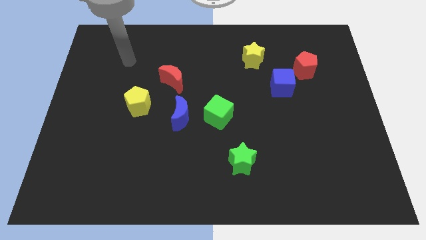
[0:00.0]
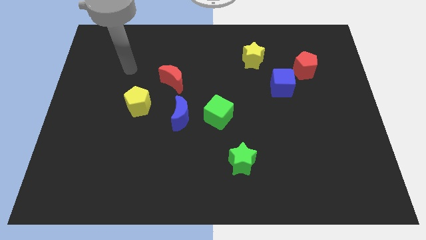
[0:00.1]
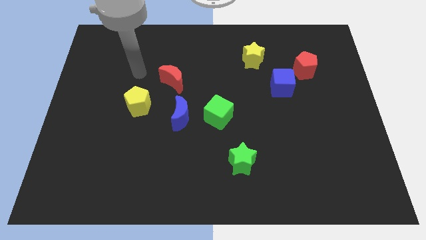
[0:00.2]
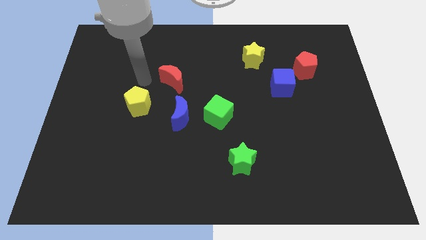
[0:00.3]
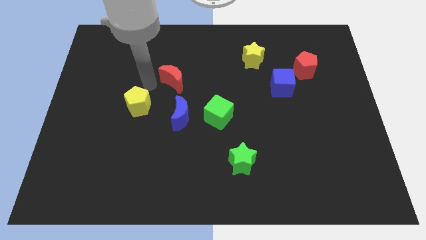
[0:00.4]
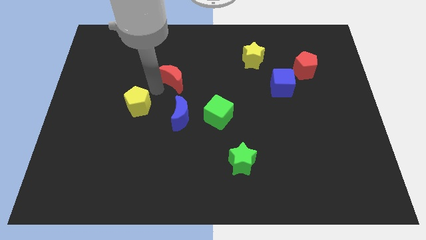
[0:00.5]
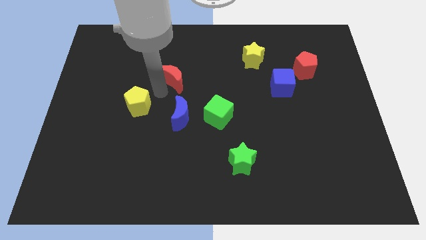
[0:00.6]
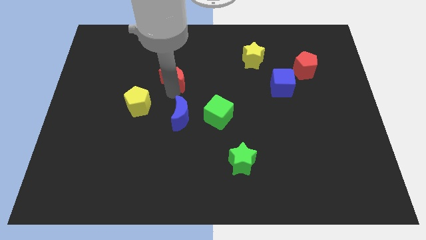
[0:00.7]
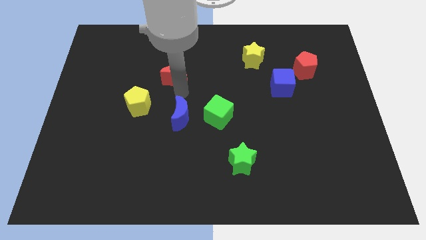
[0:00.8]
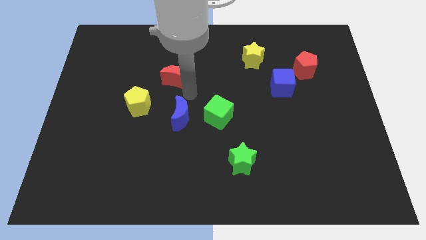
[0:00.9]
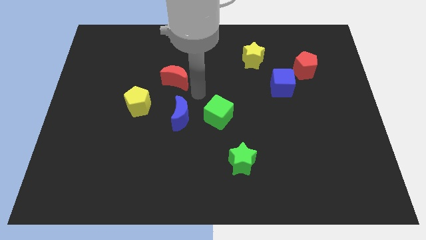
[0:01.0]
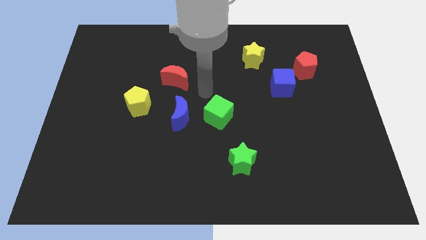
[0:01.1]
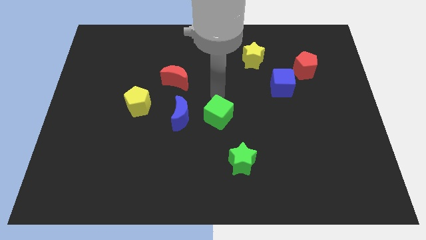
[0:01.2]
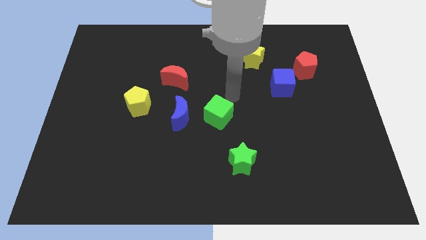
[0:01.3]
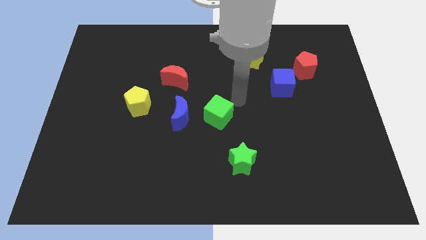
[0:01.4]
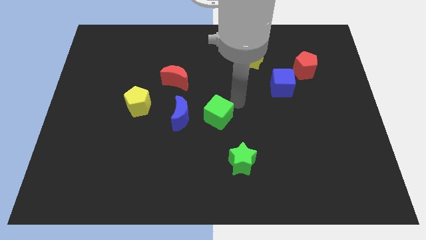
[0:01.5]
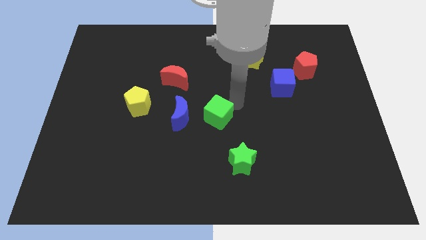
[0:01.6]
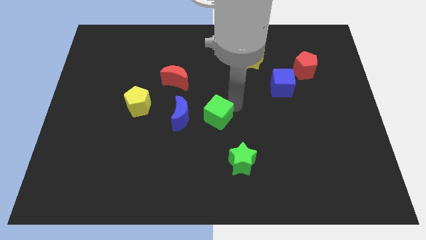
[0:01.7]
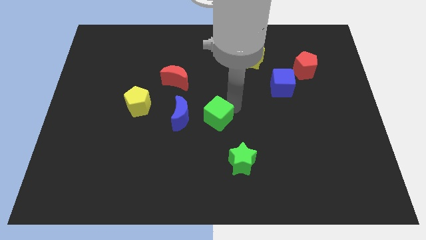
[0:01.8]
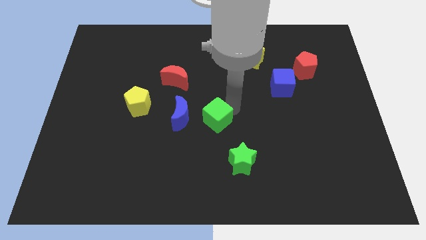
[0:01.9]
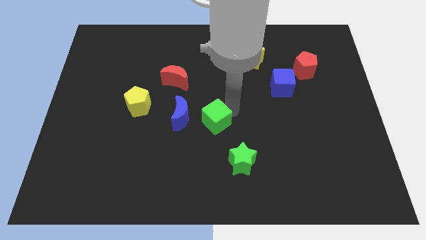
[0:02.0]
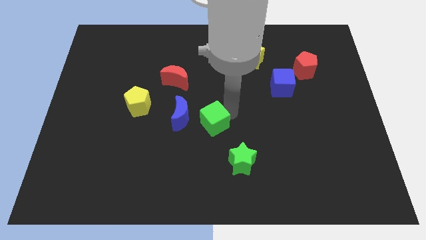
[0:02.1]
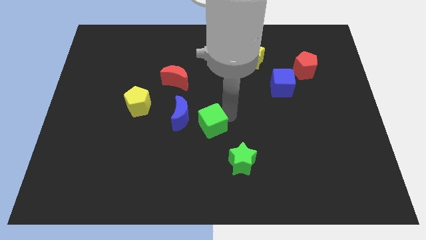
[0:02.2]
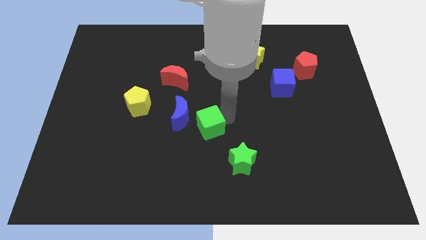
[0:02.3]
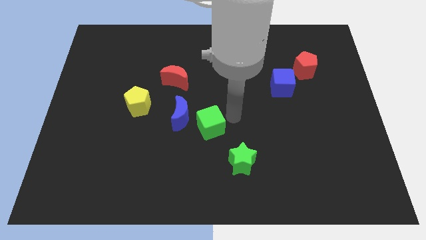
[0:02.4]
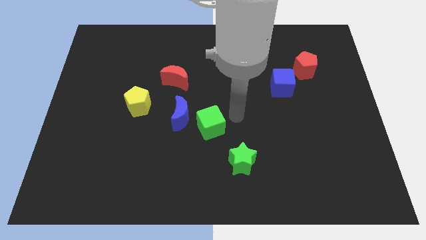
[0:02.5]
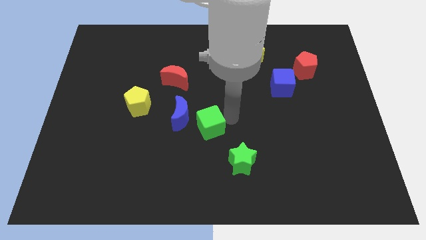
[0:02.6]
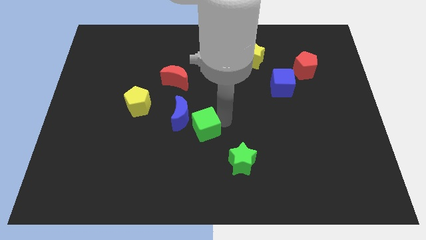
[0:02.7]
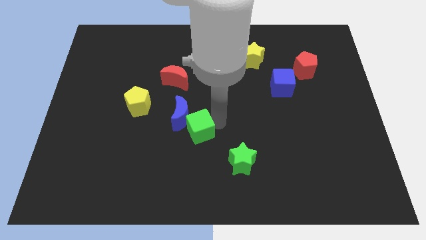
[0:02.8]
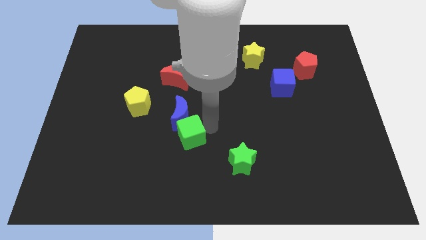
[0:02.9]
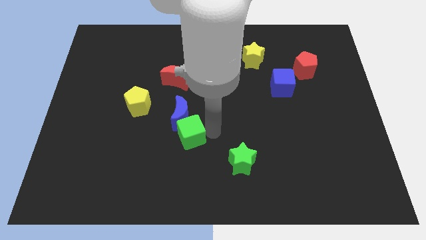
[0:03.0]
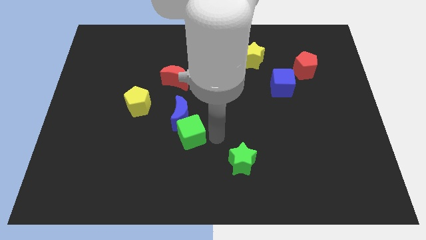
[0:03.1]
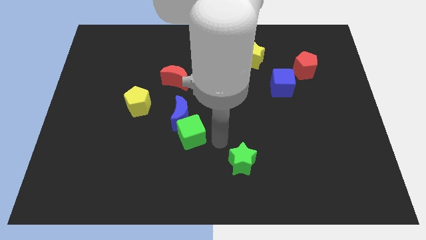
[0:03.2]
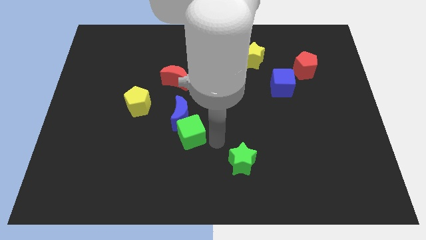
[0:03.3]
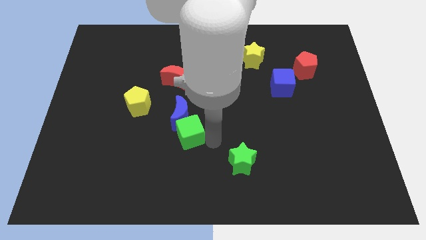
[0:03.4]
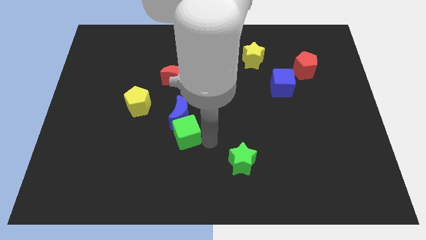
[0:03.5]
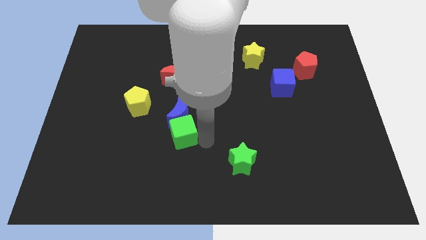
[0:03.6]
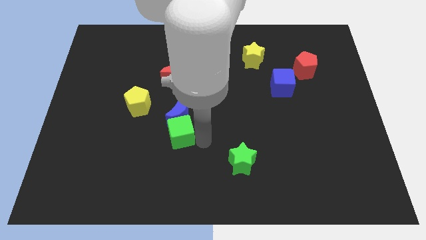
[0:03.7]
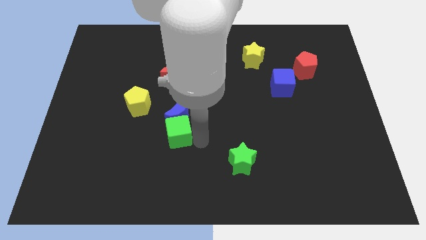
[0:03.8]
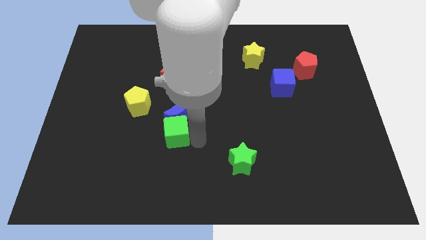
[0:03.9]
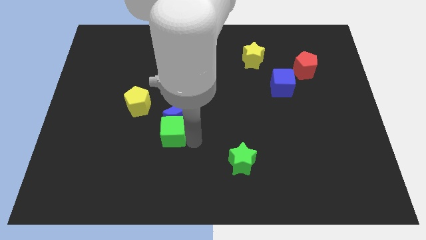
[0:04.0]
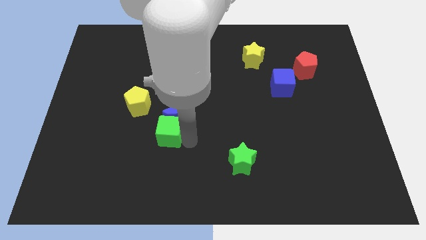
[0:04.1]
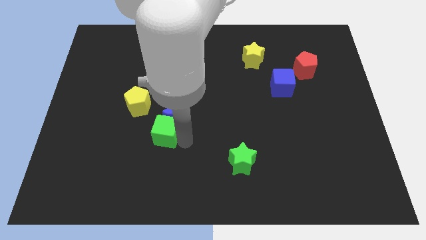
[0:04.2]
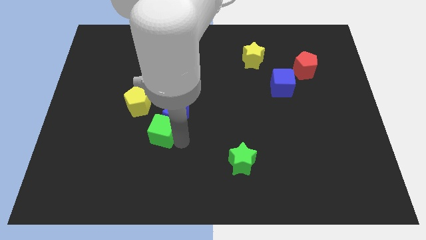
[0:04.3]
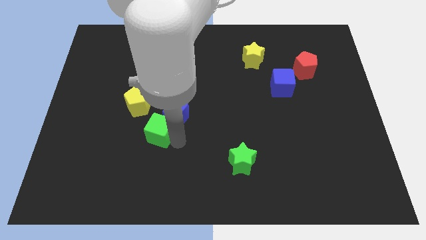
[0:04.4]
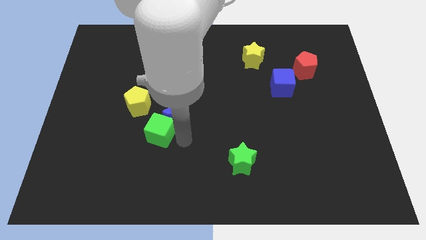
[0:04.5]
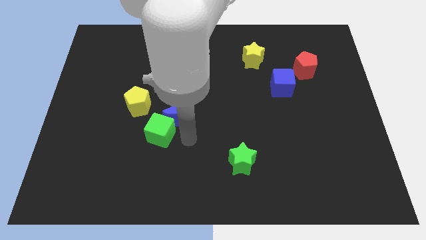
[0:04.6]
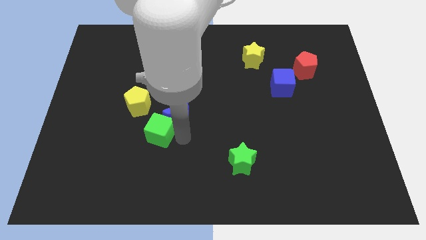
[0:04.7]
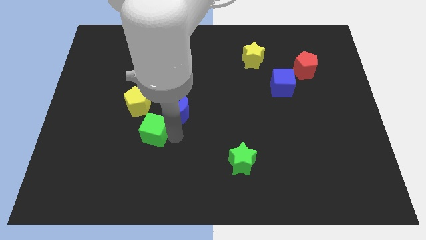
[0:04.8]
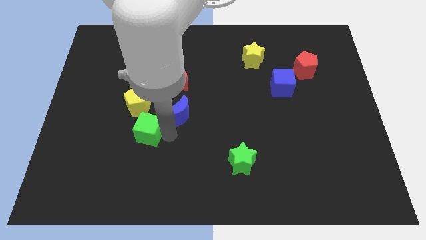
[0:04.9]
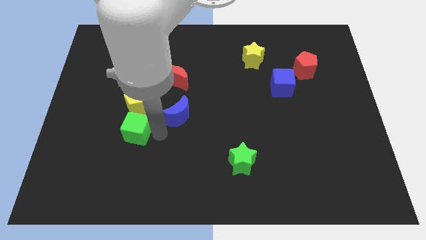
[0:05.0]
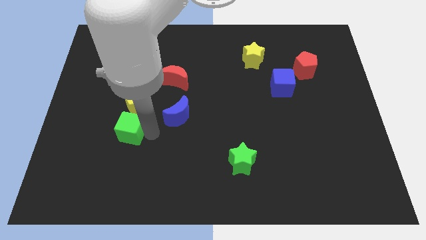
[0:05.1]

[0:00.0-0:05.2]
move the green cube to the bottom left of the yellow pentagon

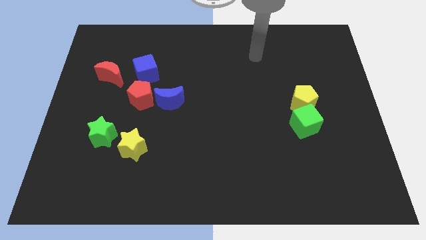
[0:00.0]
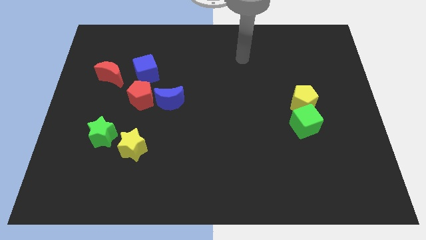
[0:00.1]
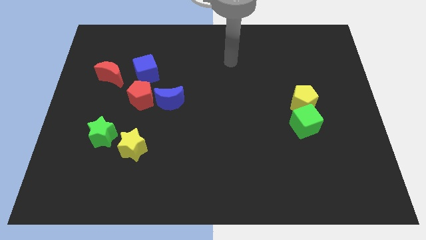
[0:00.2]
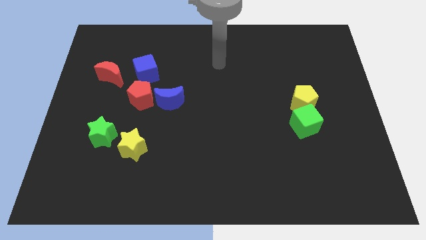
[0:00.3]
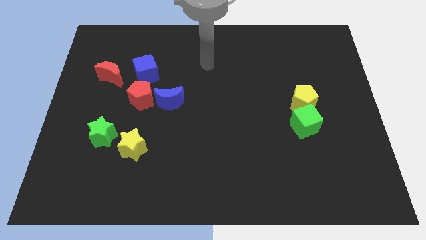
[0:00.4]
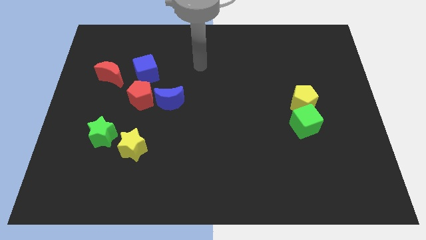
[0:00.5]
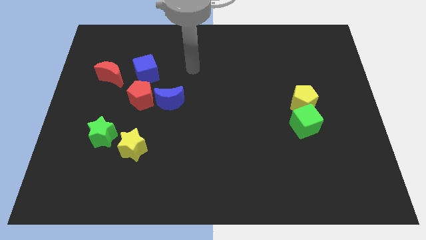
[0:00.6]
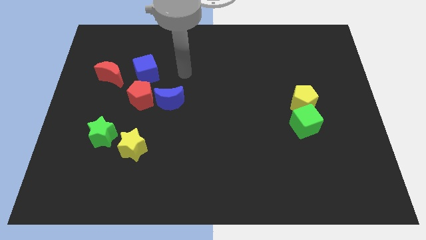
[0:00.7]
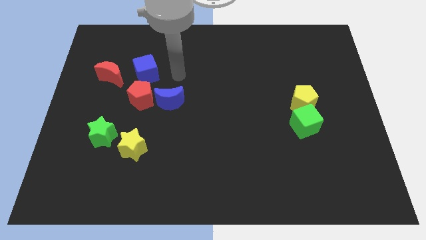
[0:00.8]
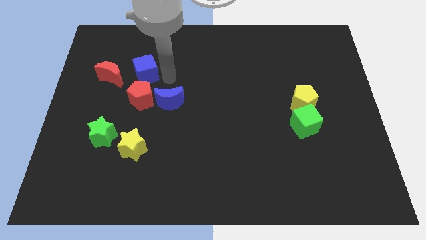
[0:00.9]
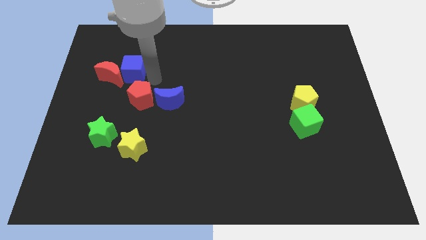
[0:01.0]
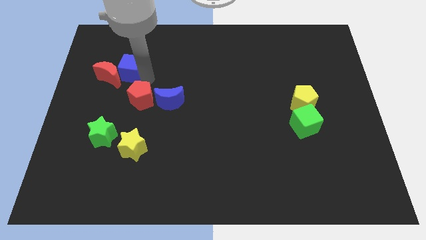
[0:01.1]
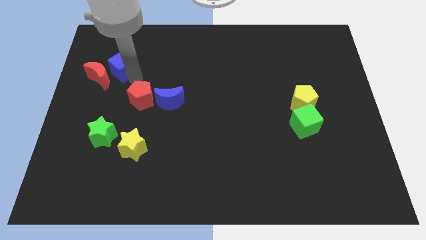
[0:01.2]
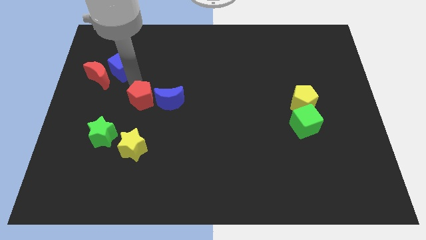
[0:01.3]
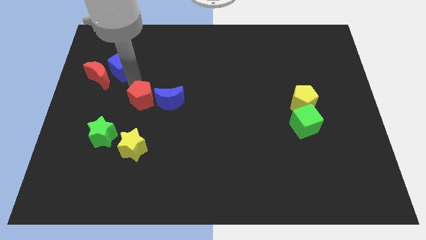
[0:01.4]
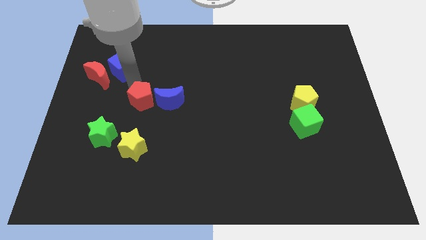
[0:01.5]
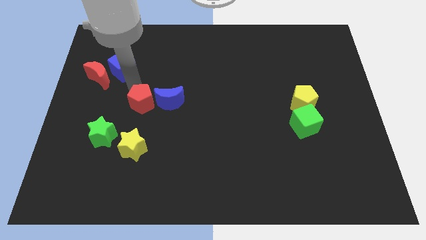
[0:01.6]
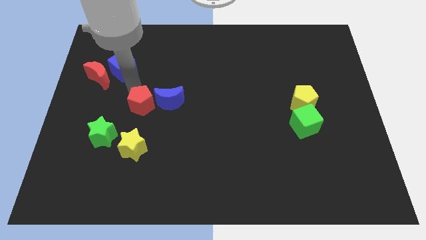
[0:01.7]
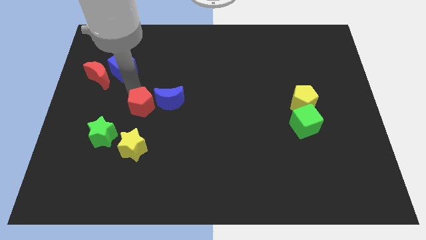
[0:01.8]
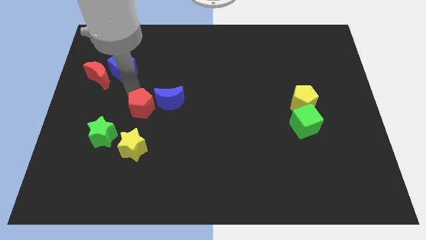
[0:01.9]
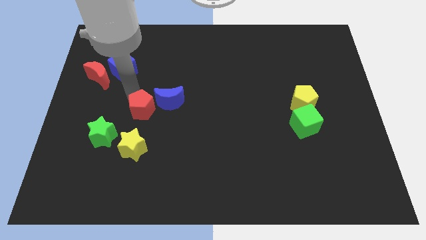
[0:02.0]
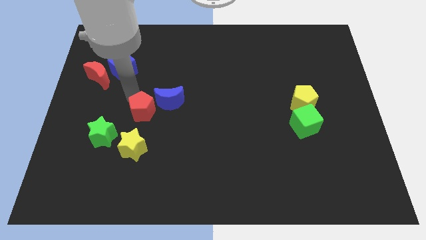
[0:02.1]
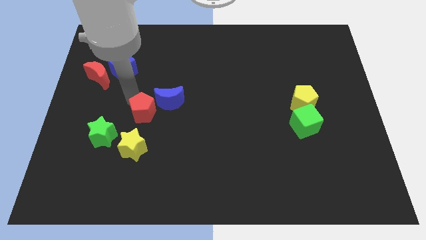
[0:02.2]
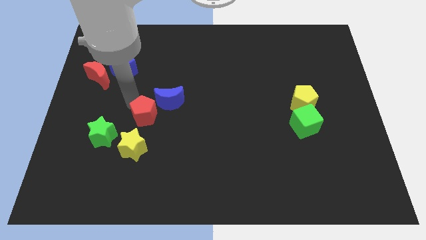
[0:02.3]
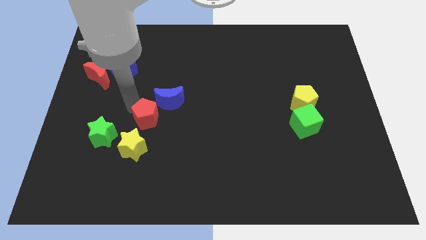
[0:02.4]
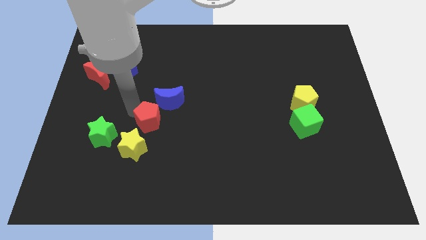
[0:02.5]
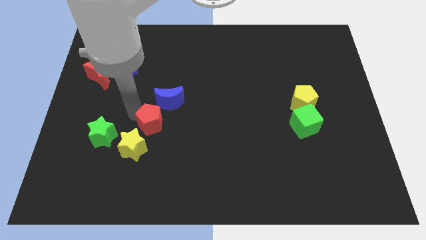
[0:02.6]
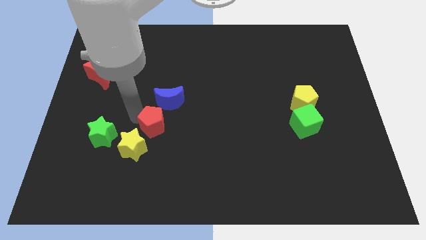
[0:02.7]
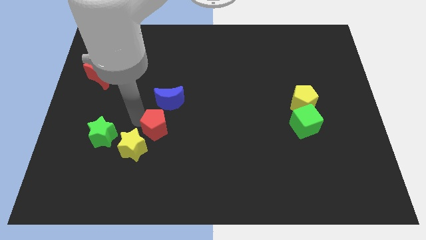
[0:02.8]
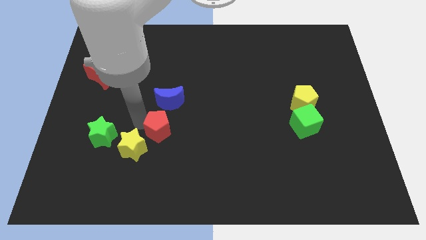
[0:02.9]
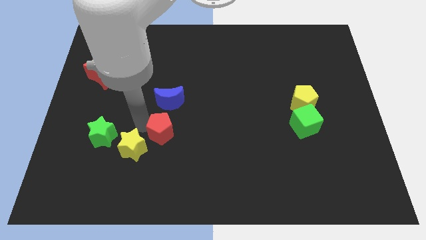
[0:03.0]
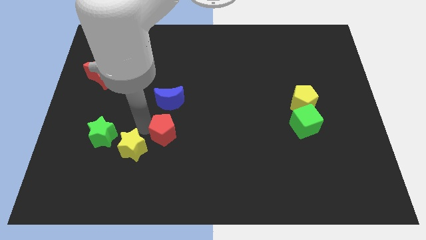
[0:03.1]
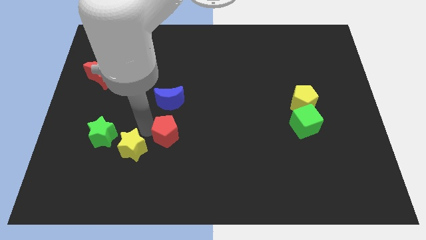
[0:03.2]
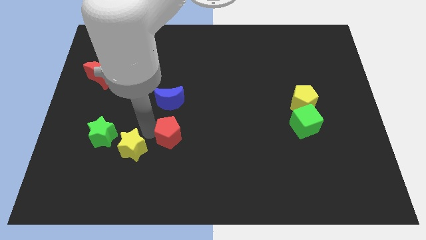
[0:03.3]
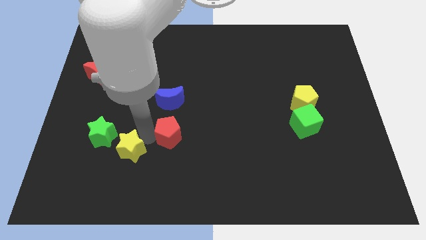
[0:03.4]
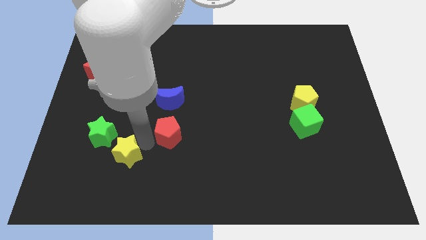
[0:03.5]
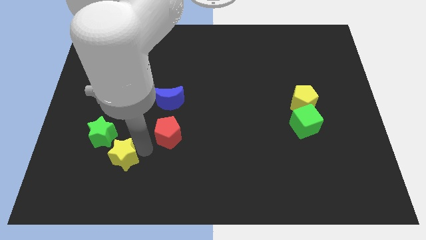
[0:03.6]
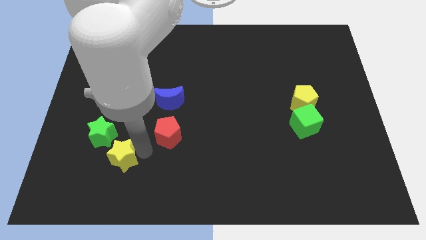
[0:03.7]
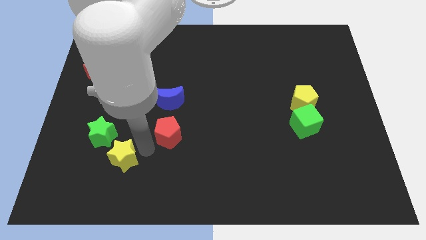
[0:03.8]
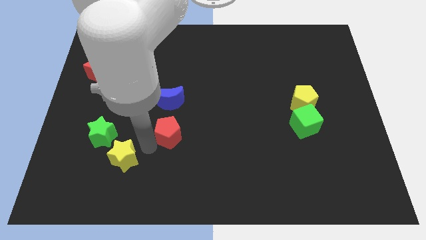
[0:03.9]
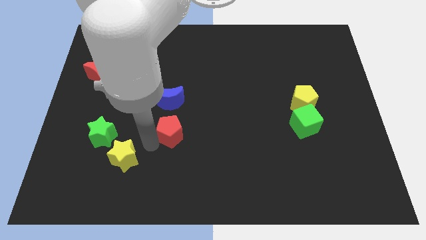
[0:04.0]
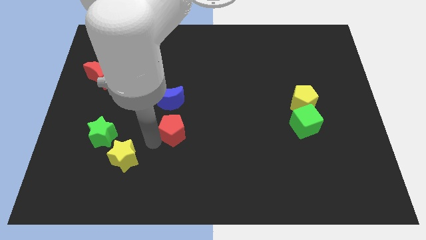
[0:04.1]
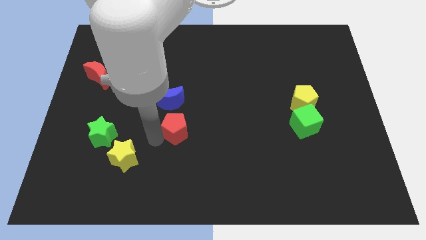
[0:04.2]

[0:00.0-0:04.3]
move the red pentagon diagonally down and to the right of the blue moon
